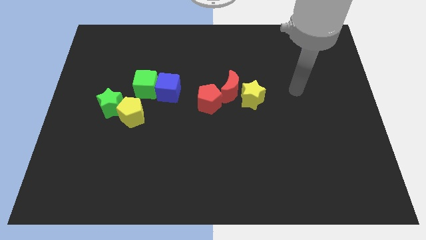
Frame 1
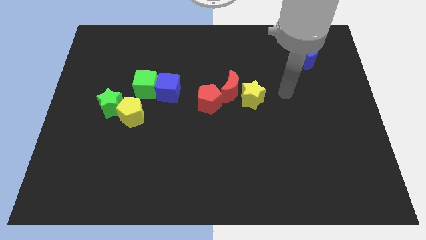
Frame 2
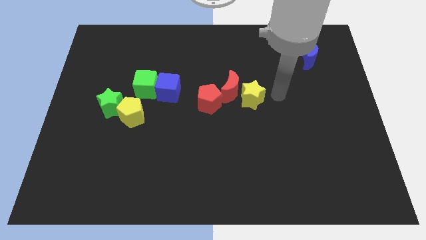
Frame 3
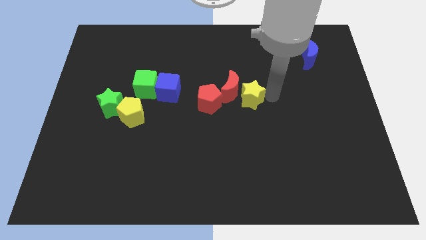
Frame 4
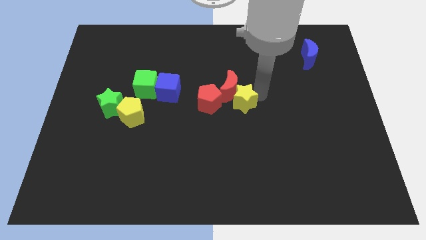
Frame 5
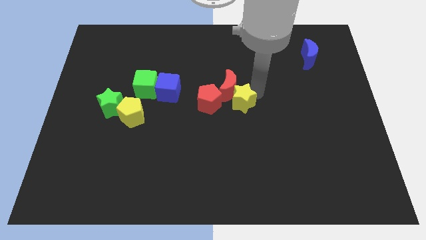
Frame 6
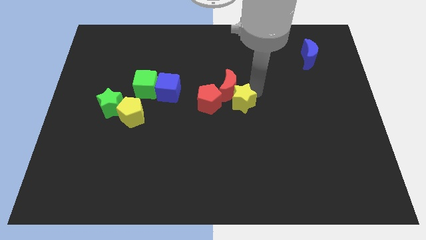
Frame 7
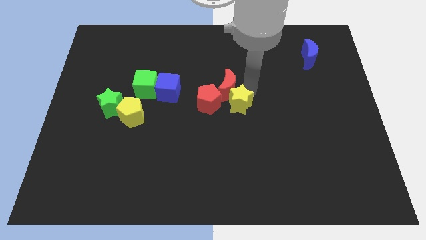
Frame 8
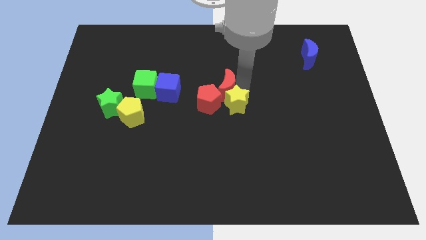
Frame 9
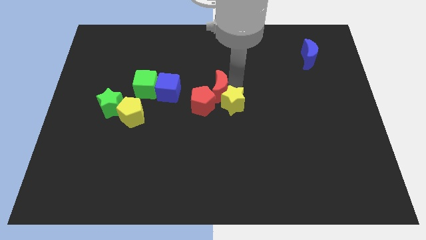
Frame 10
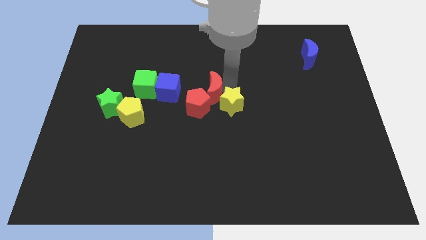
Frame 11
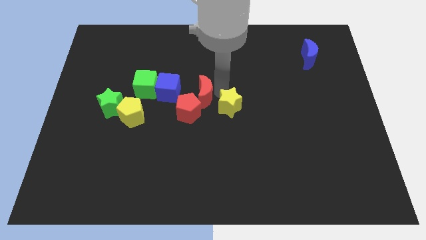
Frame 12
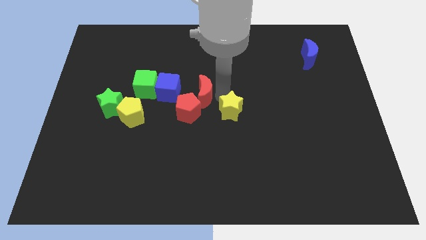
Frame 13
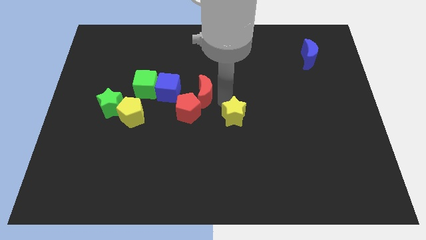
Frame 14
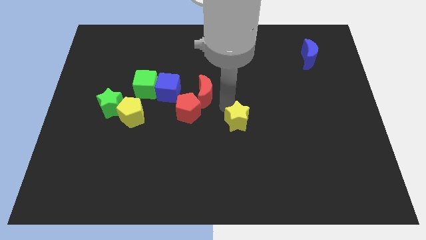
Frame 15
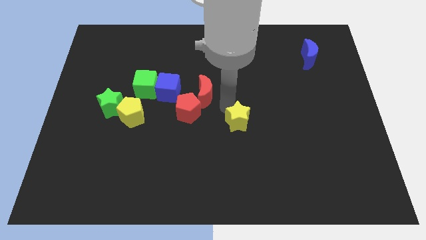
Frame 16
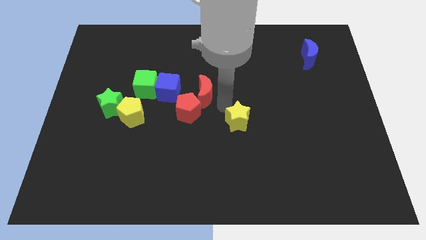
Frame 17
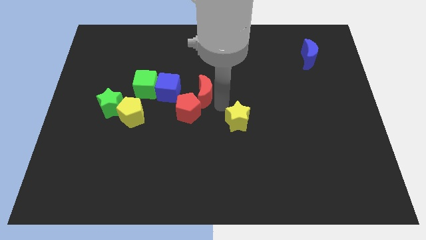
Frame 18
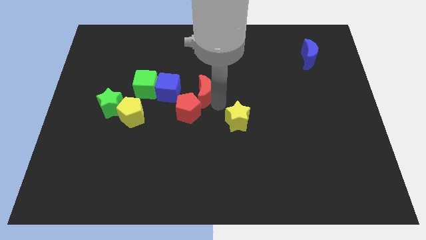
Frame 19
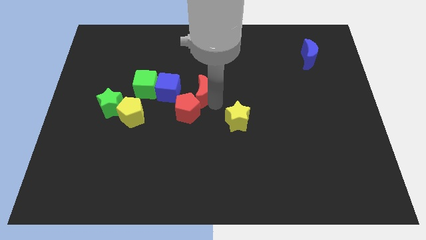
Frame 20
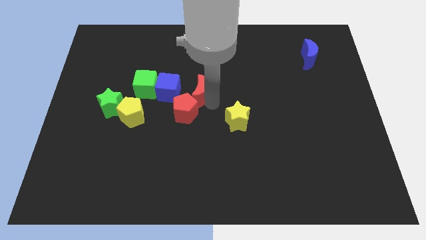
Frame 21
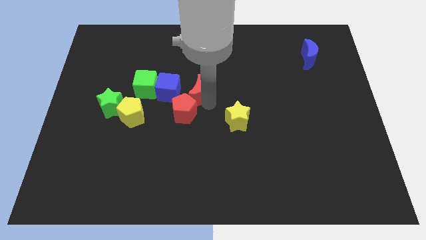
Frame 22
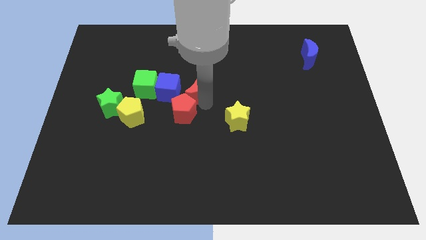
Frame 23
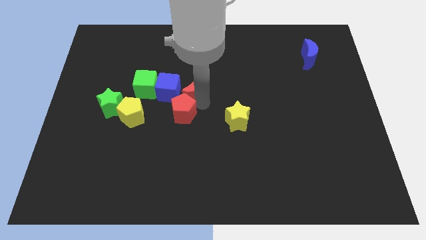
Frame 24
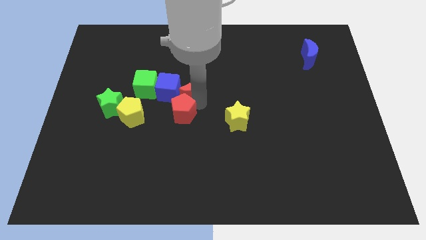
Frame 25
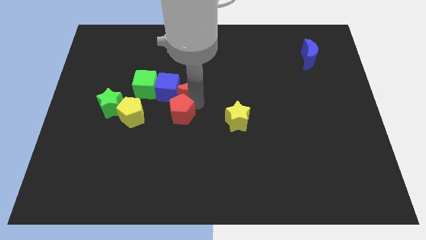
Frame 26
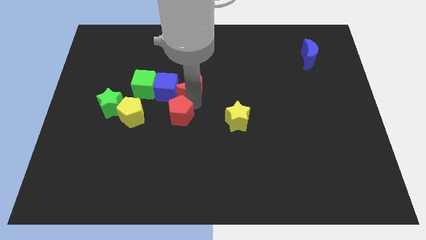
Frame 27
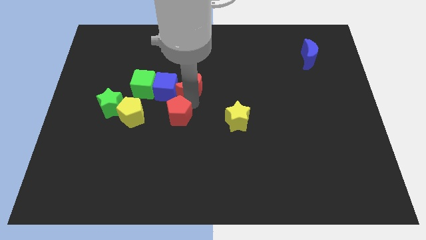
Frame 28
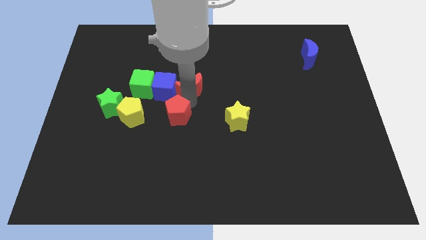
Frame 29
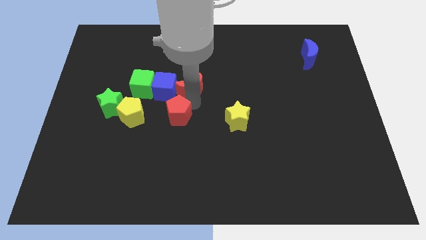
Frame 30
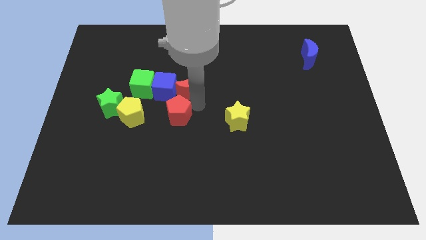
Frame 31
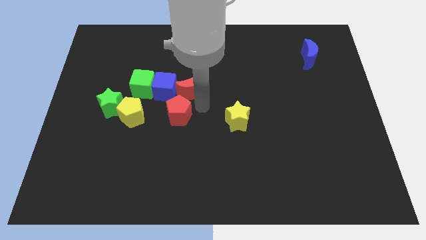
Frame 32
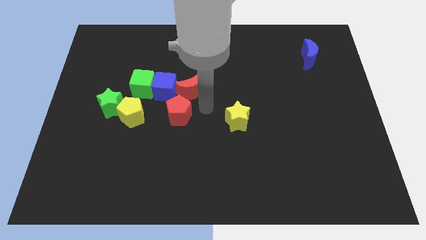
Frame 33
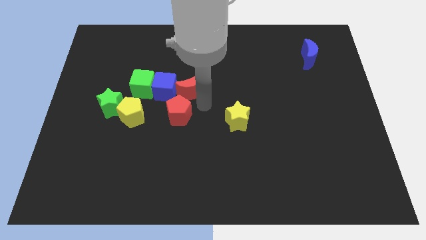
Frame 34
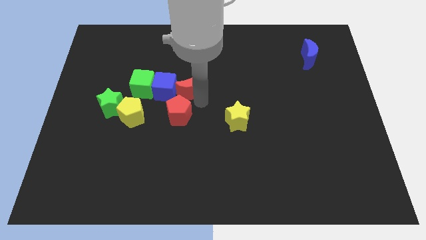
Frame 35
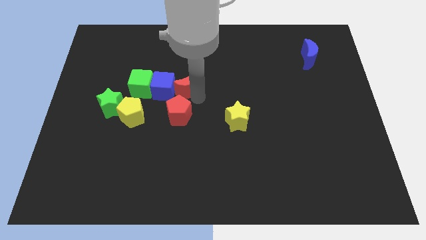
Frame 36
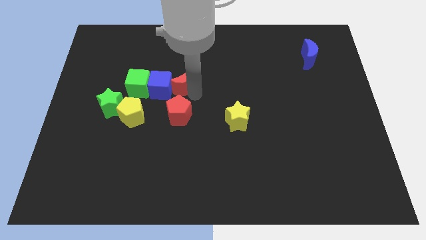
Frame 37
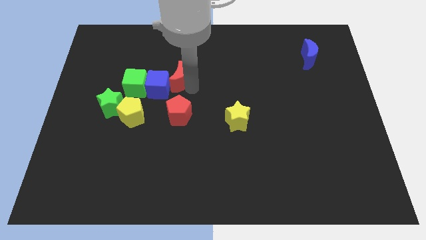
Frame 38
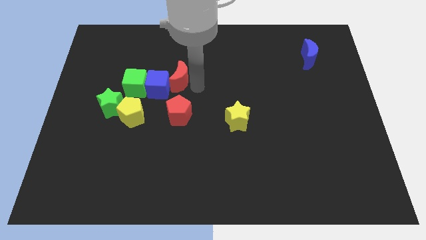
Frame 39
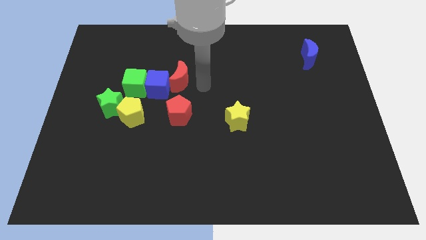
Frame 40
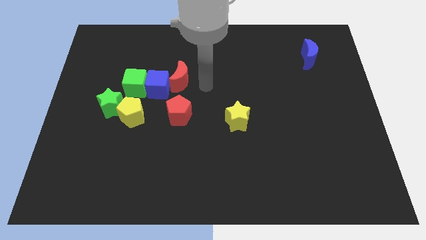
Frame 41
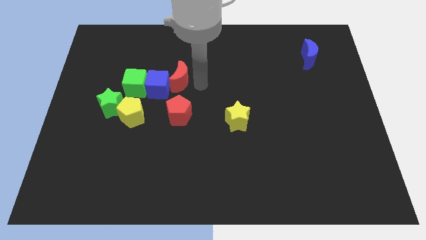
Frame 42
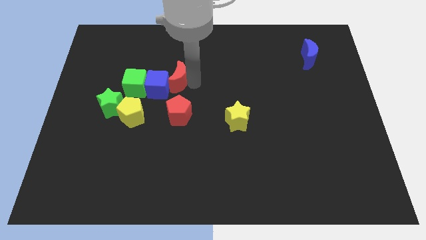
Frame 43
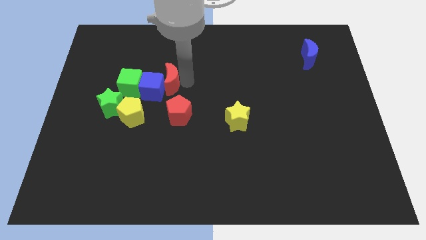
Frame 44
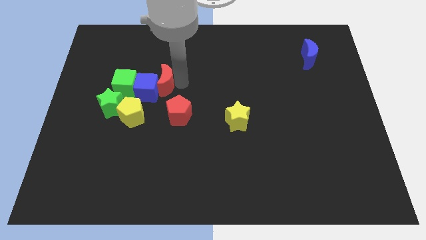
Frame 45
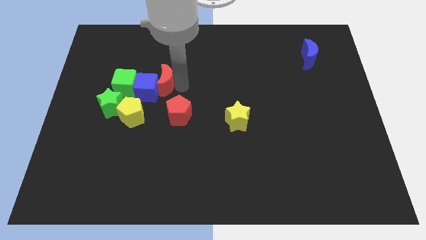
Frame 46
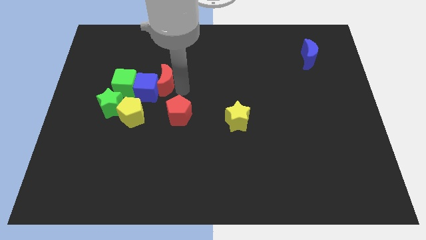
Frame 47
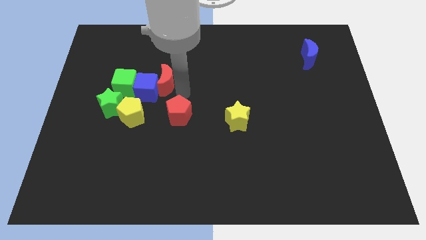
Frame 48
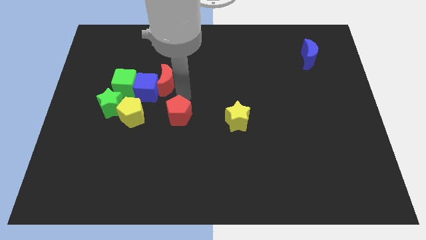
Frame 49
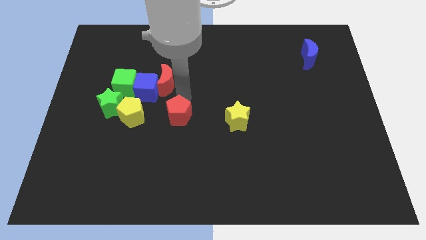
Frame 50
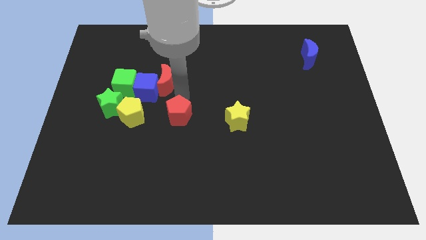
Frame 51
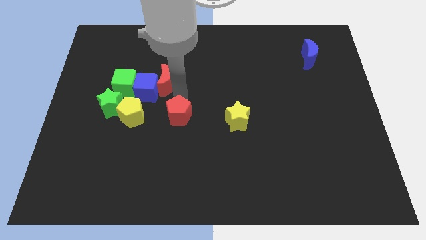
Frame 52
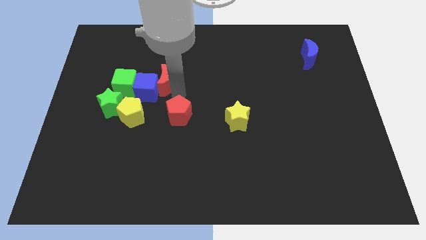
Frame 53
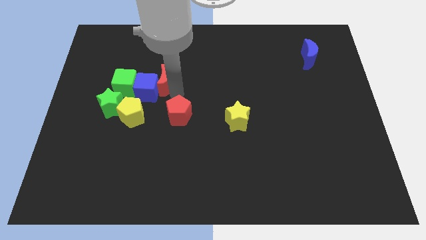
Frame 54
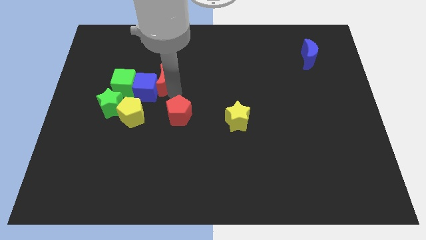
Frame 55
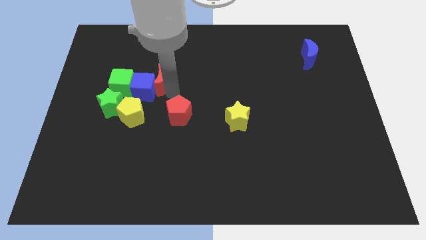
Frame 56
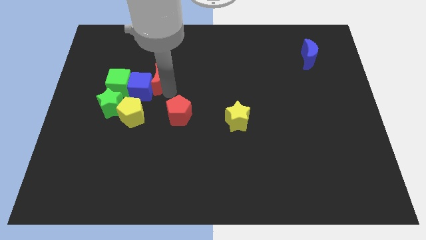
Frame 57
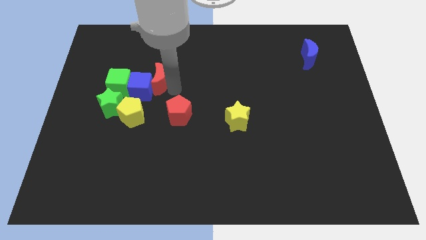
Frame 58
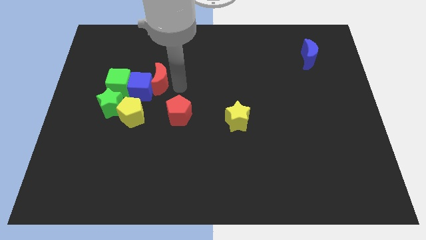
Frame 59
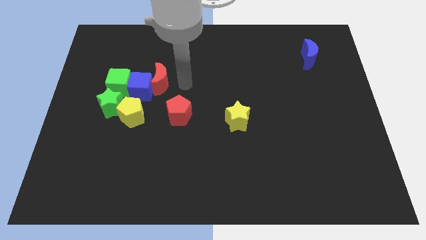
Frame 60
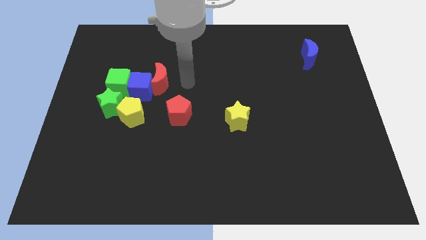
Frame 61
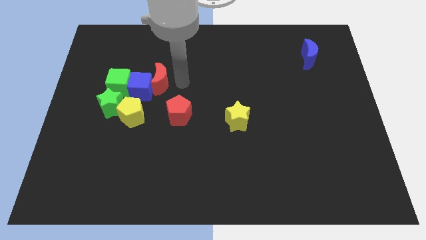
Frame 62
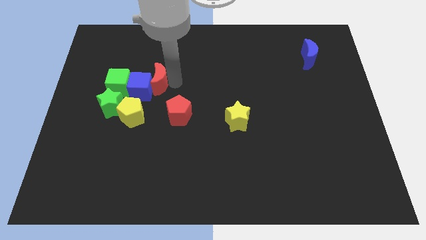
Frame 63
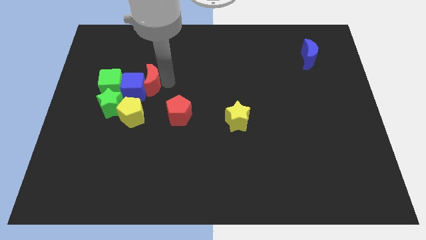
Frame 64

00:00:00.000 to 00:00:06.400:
slide the red moon to the top side of the yellow pentagon

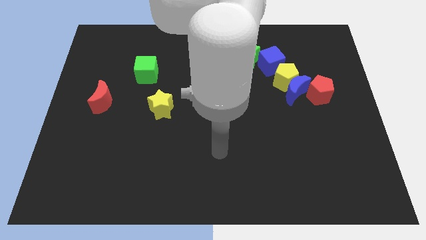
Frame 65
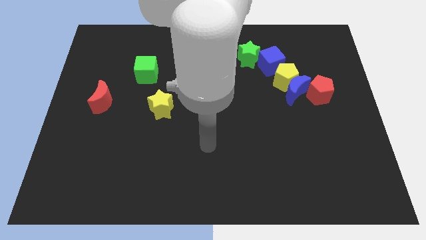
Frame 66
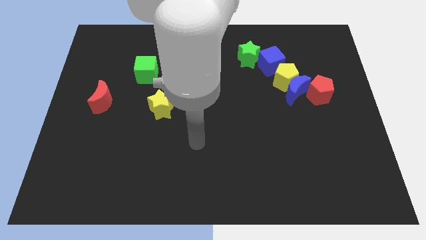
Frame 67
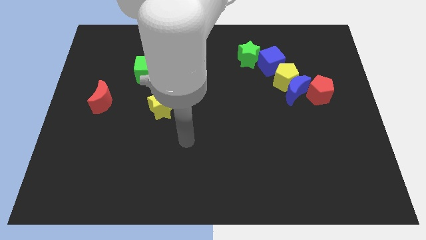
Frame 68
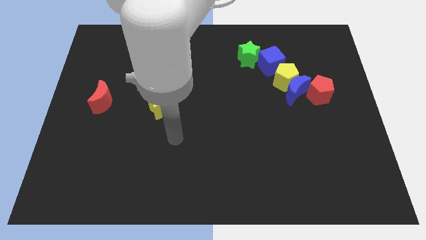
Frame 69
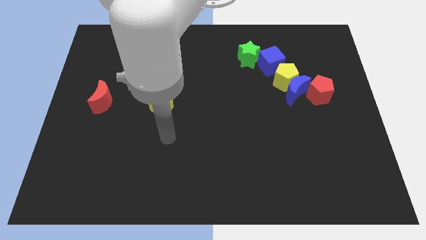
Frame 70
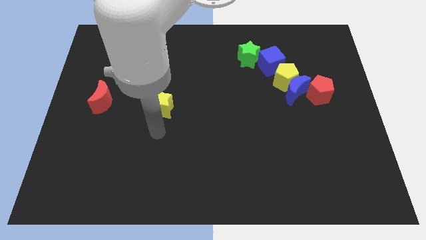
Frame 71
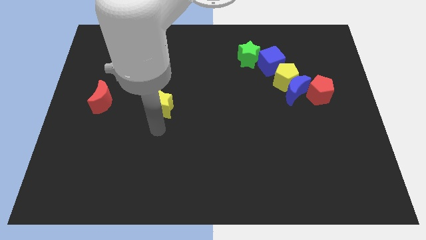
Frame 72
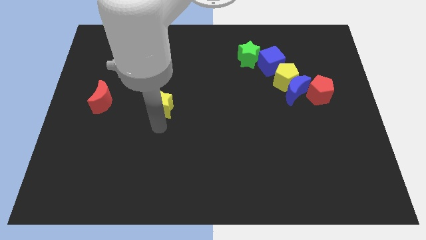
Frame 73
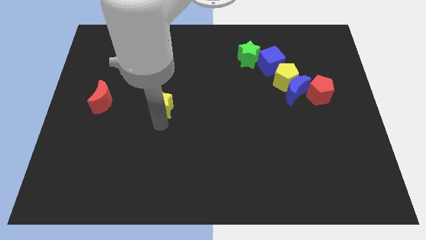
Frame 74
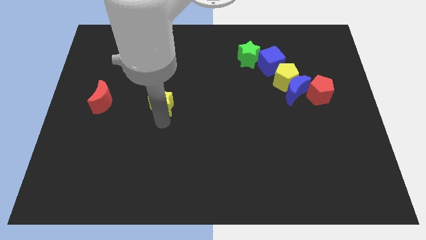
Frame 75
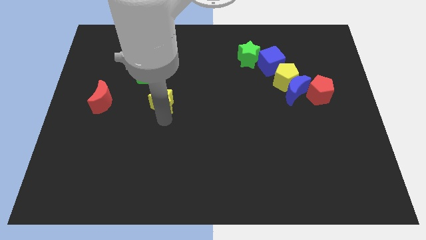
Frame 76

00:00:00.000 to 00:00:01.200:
put the yellow star to the bottom right of the green cube

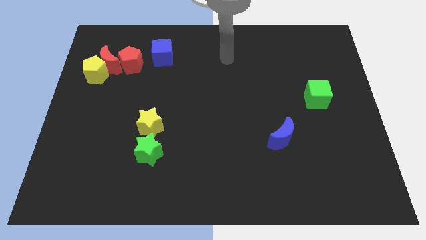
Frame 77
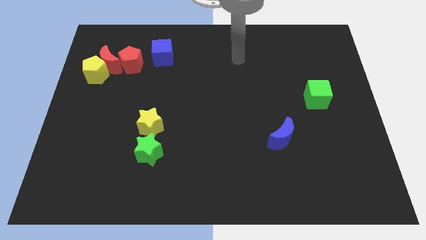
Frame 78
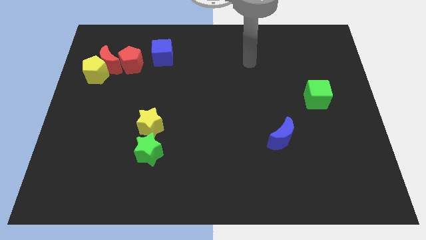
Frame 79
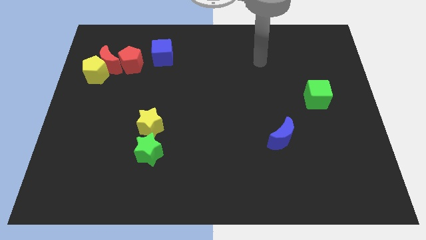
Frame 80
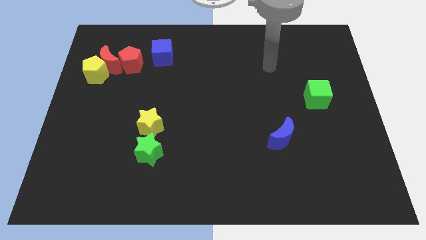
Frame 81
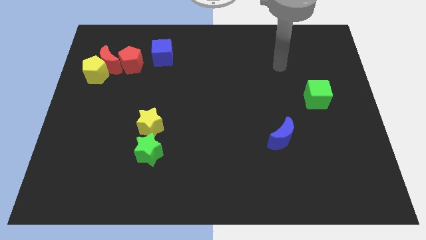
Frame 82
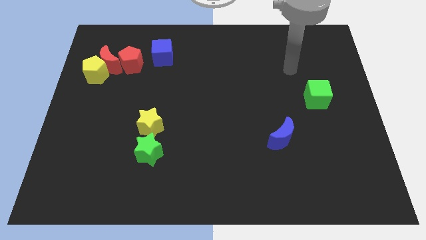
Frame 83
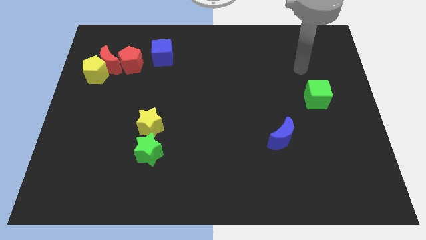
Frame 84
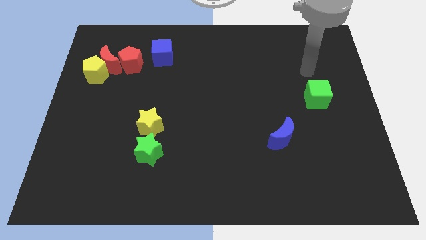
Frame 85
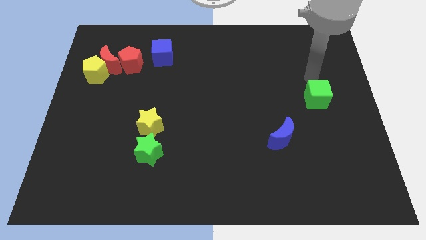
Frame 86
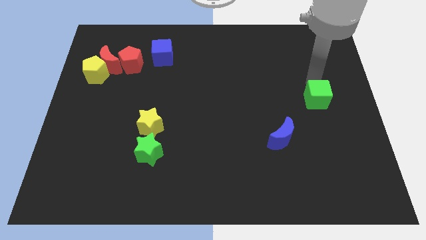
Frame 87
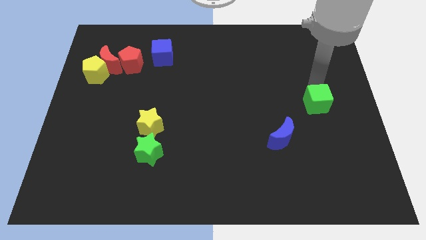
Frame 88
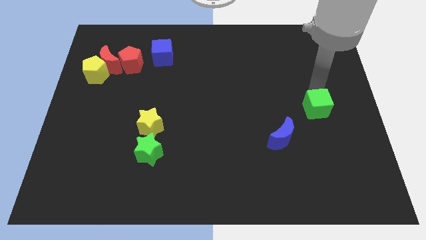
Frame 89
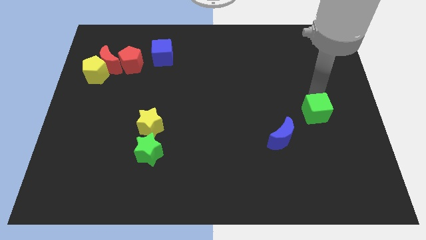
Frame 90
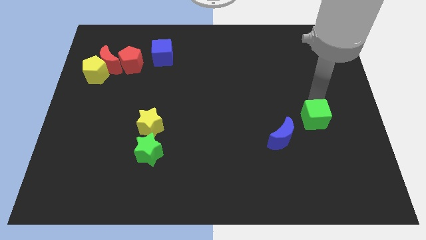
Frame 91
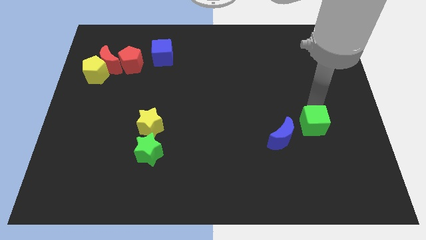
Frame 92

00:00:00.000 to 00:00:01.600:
push the green cube just right of the blue moon
